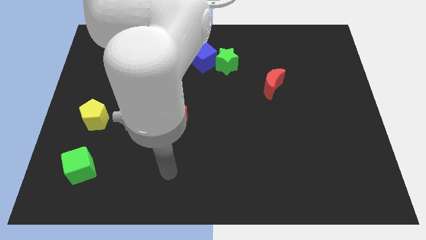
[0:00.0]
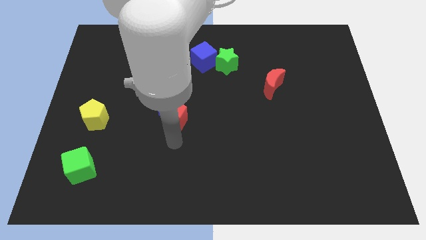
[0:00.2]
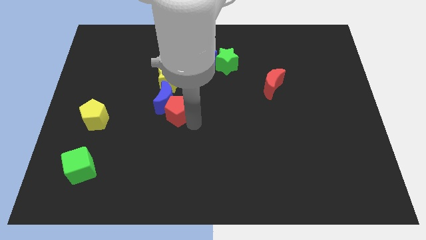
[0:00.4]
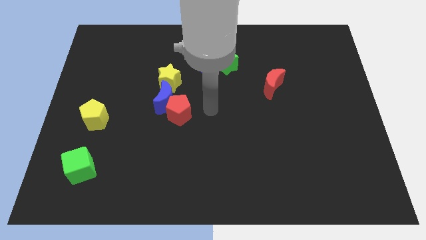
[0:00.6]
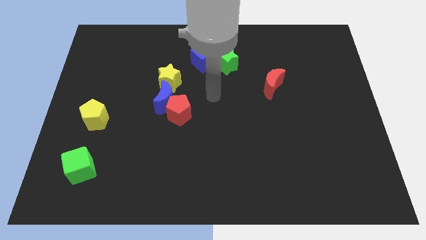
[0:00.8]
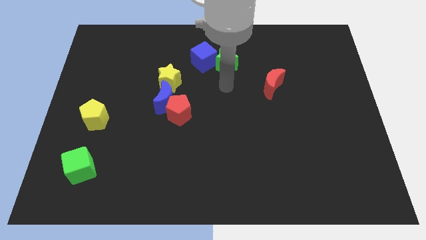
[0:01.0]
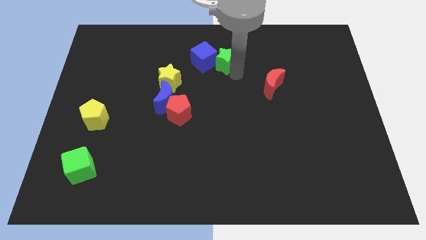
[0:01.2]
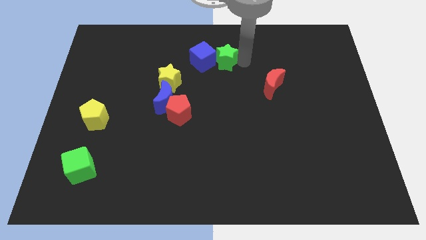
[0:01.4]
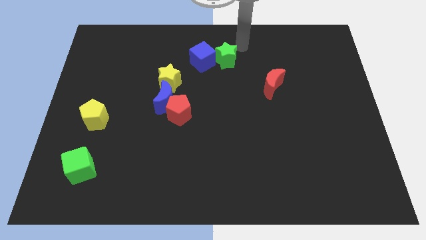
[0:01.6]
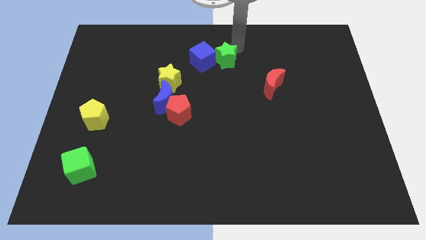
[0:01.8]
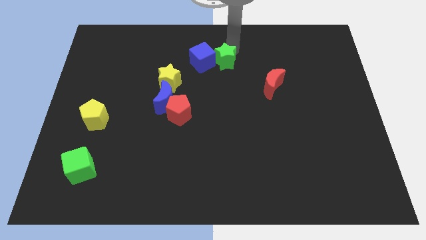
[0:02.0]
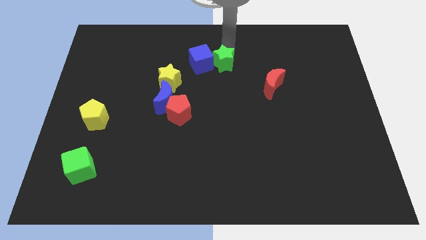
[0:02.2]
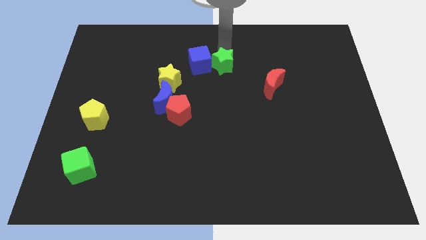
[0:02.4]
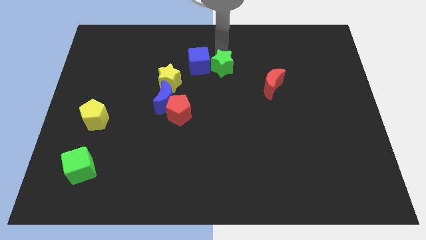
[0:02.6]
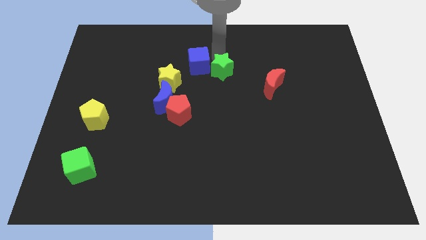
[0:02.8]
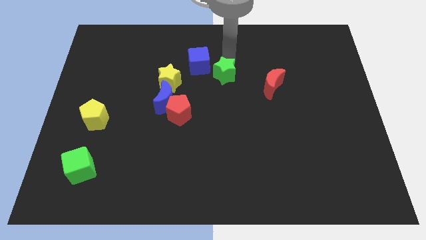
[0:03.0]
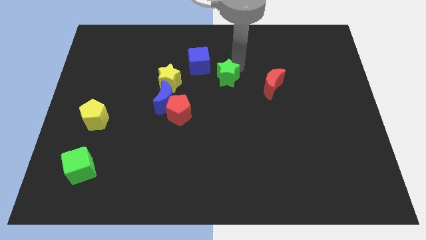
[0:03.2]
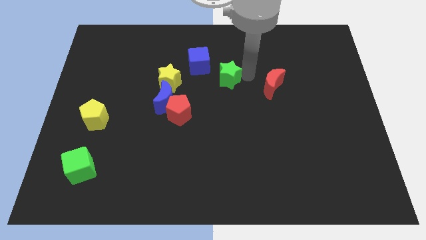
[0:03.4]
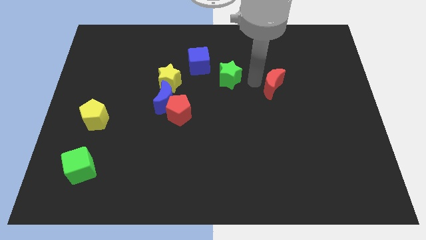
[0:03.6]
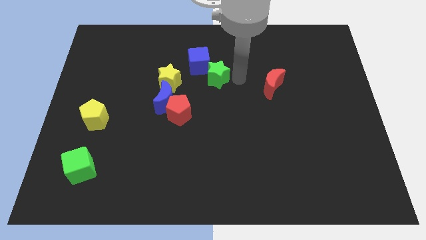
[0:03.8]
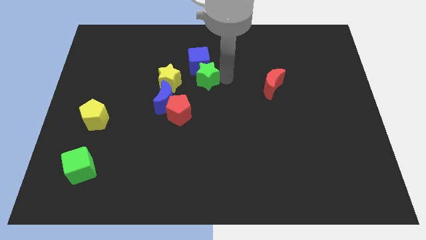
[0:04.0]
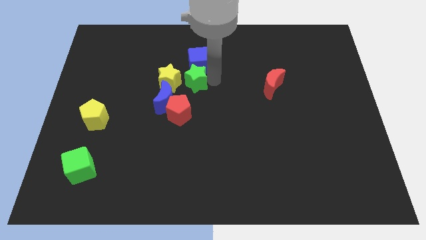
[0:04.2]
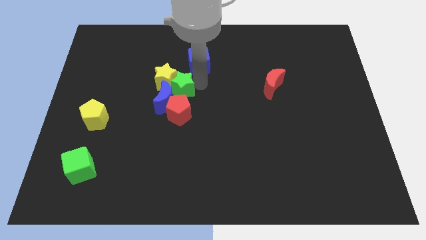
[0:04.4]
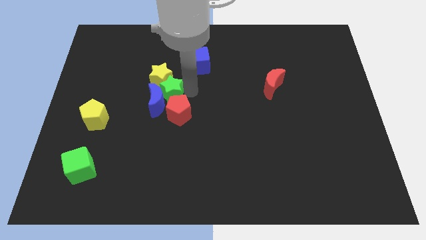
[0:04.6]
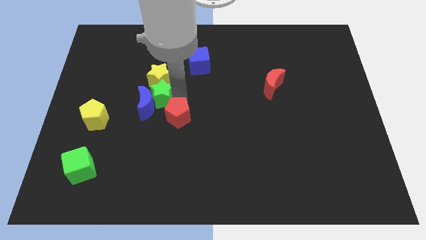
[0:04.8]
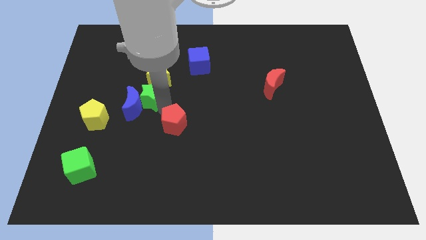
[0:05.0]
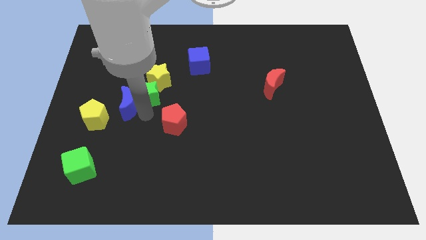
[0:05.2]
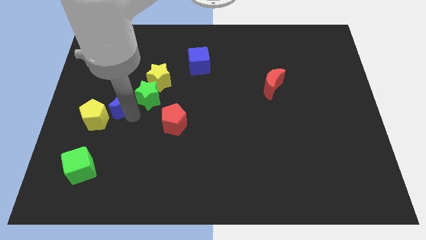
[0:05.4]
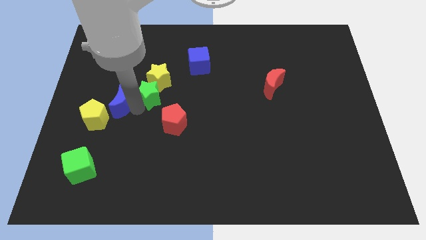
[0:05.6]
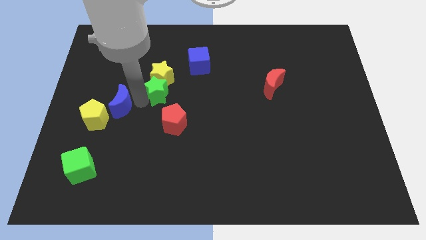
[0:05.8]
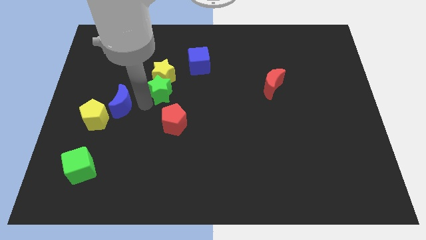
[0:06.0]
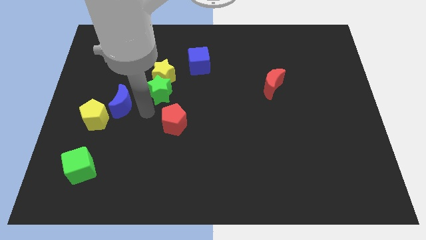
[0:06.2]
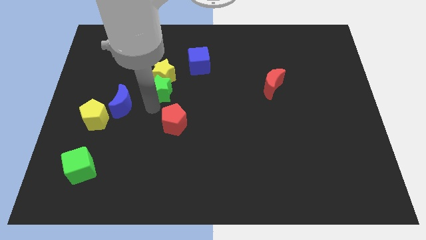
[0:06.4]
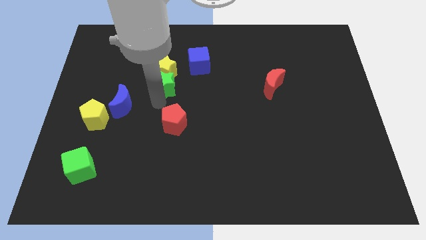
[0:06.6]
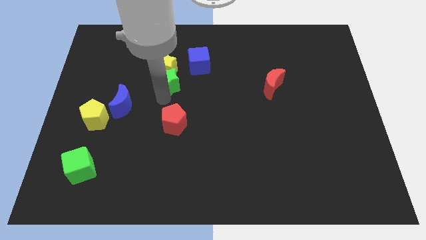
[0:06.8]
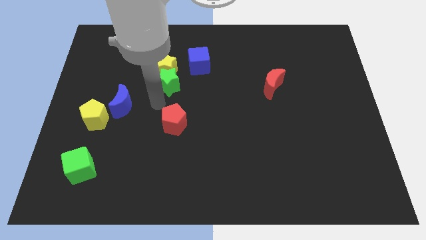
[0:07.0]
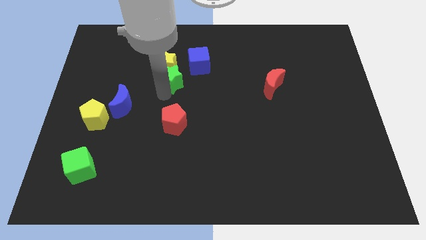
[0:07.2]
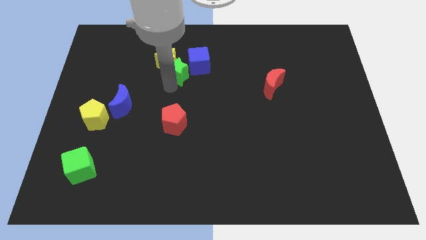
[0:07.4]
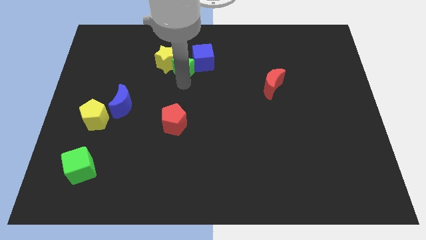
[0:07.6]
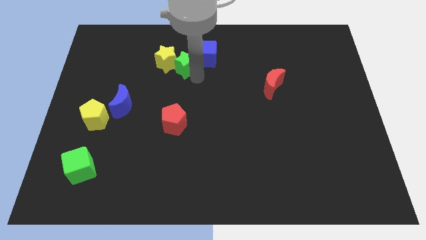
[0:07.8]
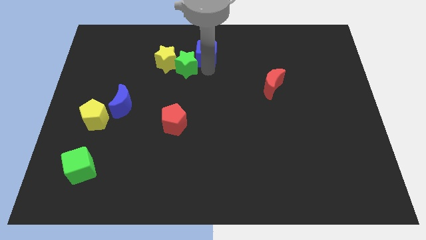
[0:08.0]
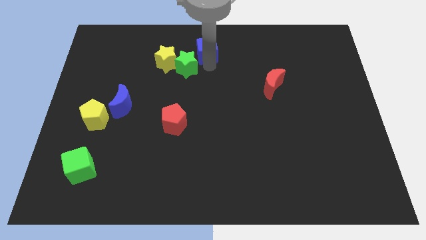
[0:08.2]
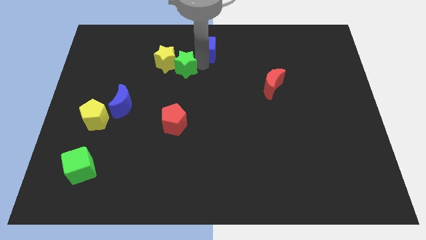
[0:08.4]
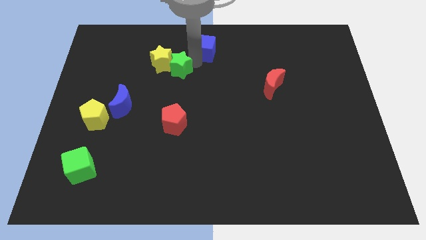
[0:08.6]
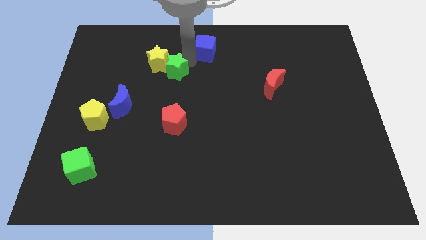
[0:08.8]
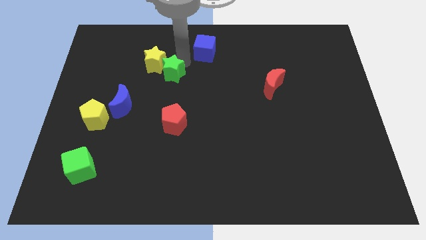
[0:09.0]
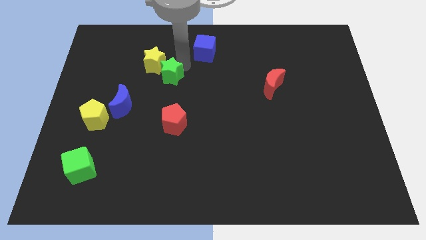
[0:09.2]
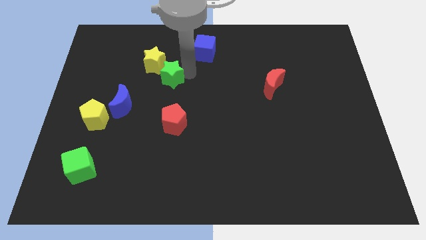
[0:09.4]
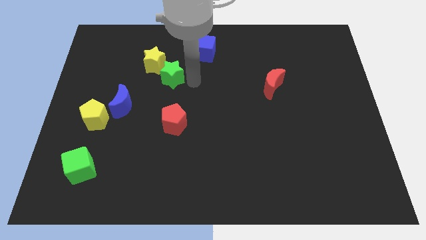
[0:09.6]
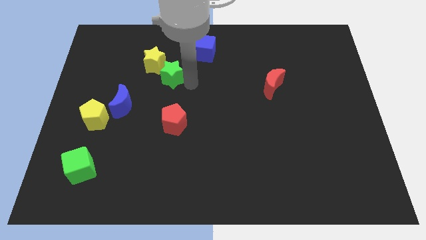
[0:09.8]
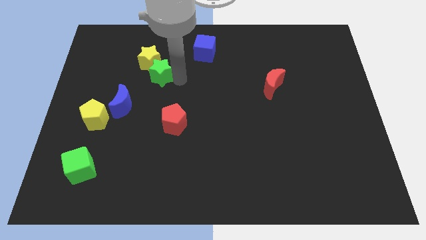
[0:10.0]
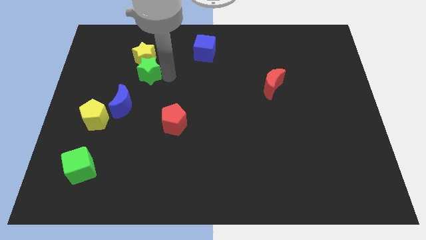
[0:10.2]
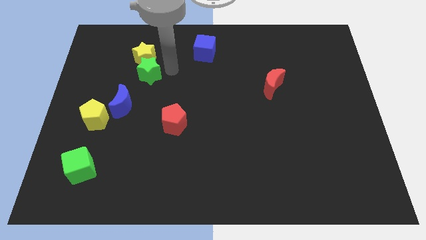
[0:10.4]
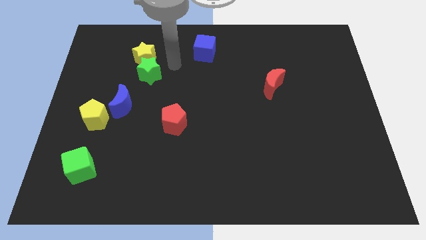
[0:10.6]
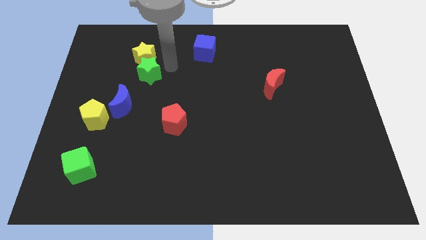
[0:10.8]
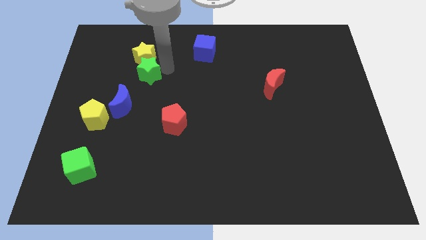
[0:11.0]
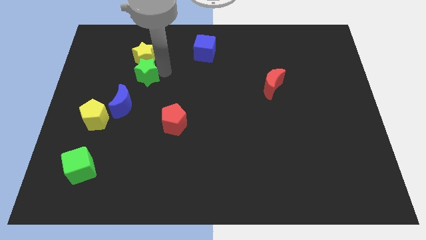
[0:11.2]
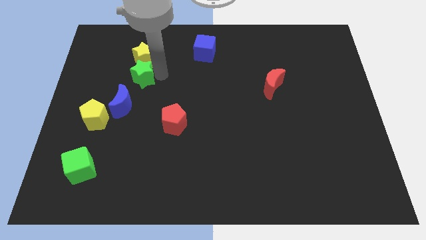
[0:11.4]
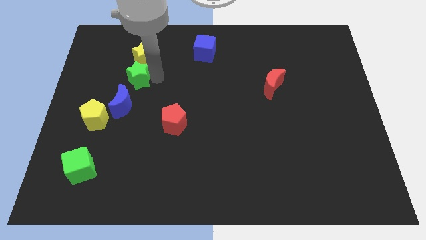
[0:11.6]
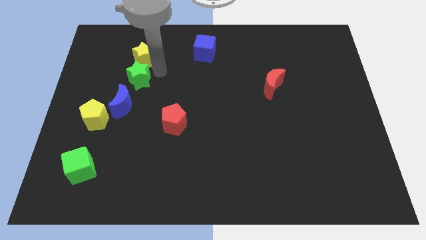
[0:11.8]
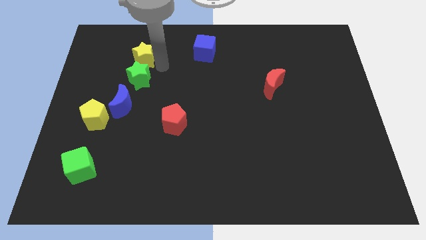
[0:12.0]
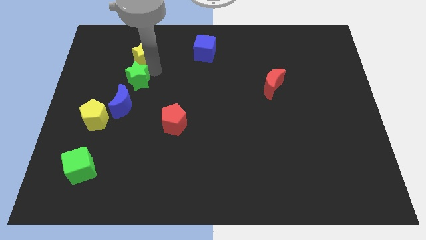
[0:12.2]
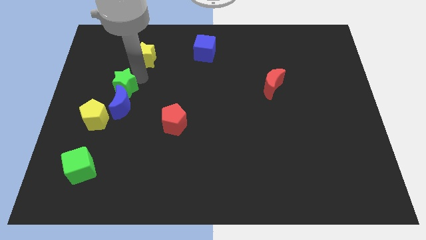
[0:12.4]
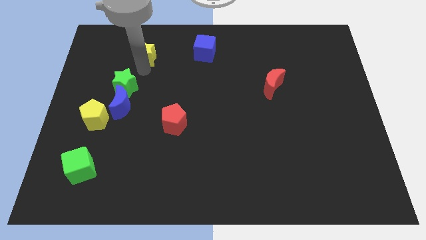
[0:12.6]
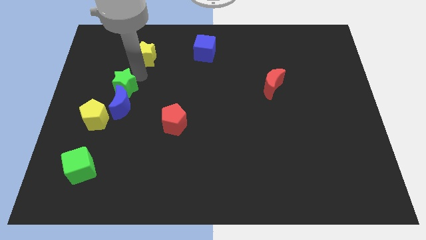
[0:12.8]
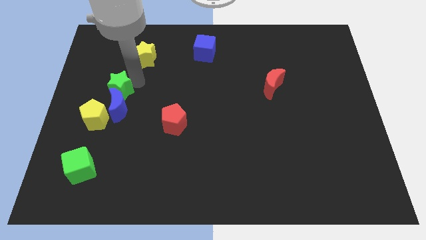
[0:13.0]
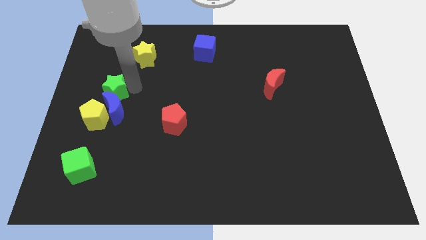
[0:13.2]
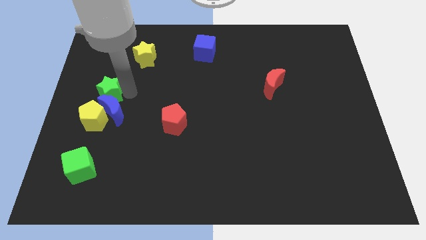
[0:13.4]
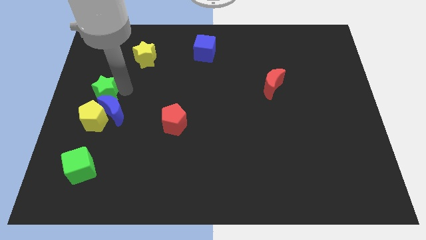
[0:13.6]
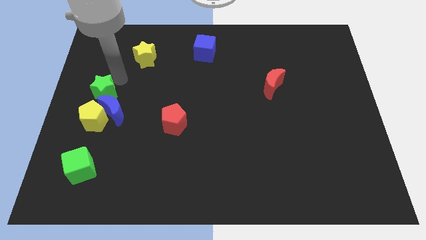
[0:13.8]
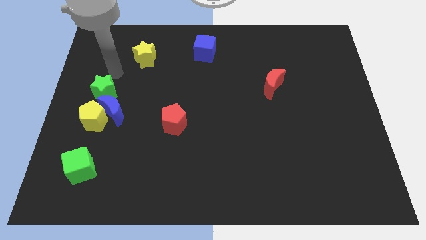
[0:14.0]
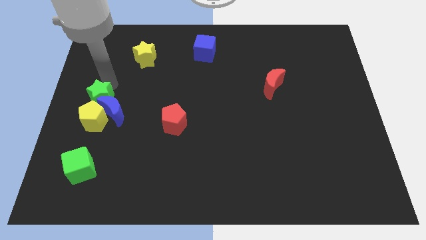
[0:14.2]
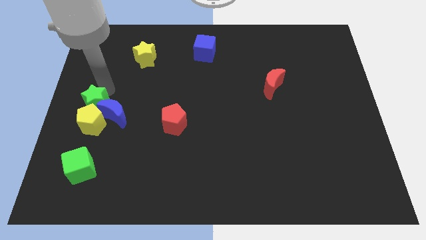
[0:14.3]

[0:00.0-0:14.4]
slide the green star to the yellow pentagon
